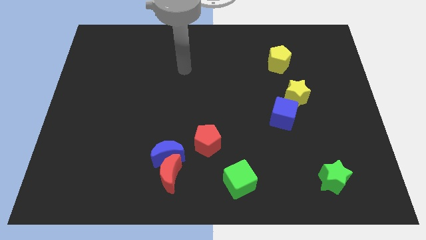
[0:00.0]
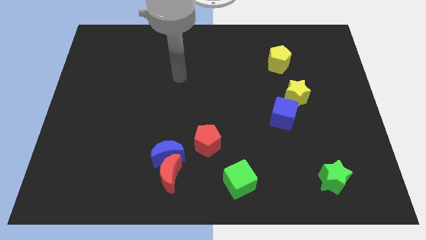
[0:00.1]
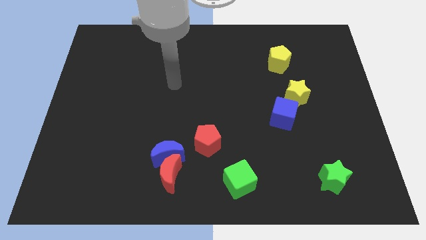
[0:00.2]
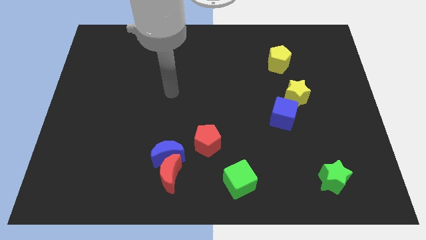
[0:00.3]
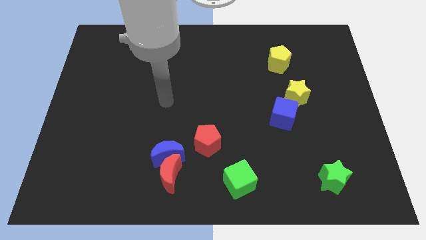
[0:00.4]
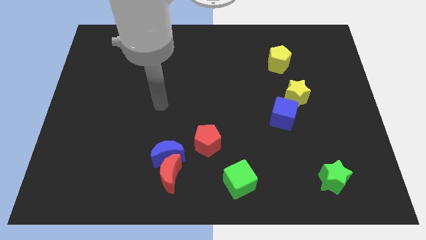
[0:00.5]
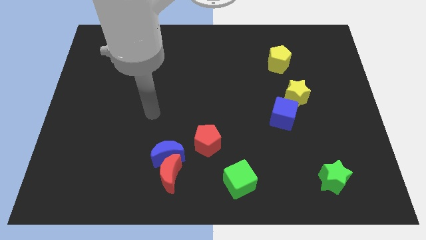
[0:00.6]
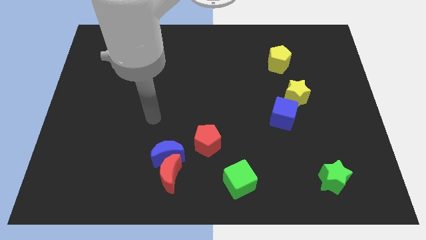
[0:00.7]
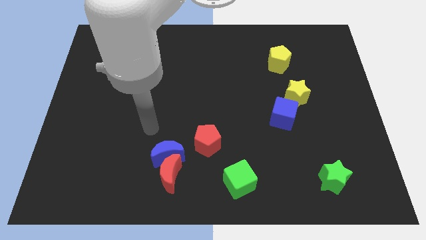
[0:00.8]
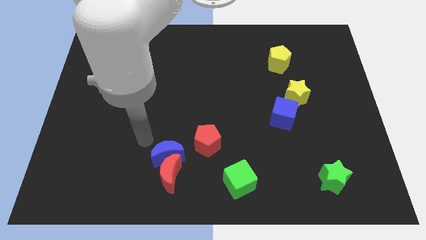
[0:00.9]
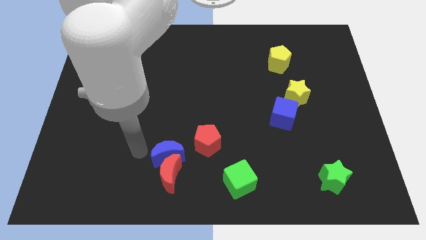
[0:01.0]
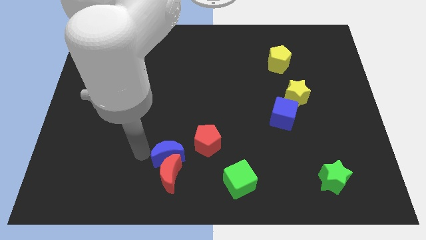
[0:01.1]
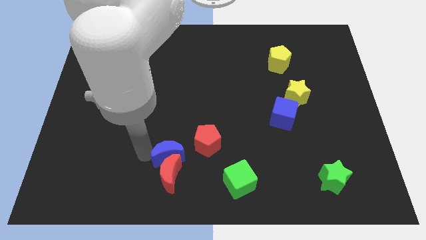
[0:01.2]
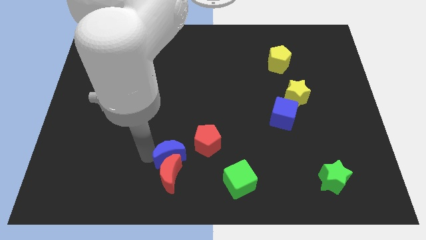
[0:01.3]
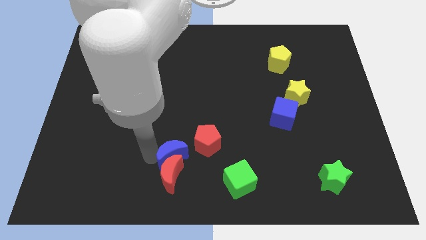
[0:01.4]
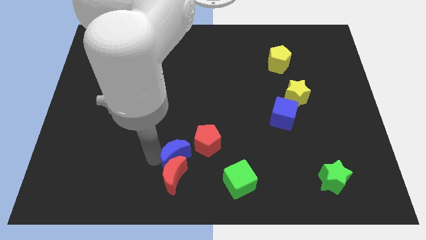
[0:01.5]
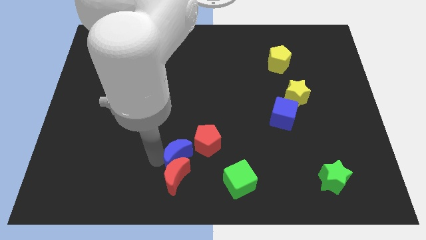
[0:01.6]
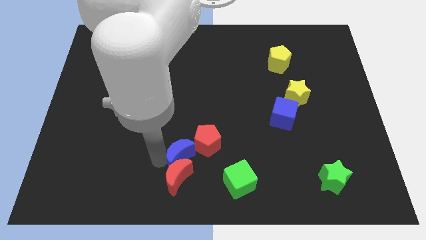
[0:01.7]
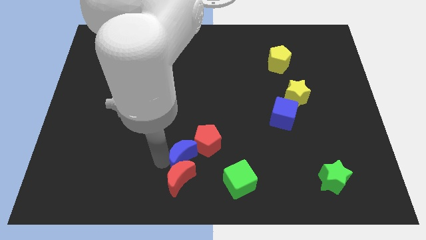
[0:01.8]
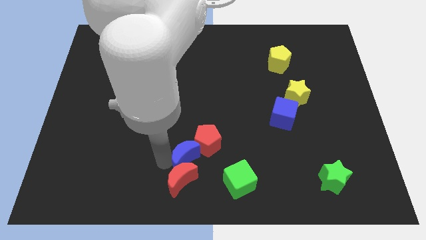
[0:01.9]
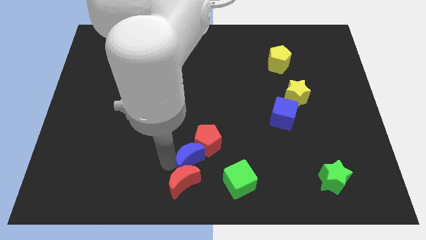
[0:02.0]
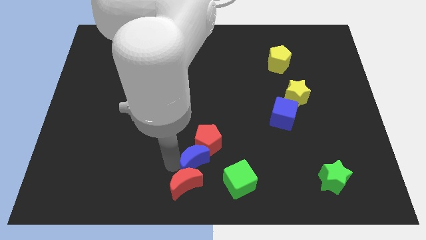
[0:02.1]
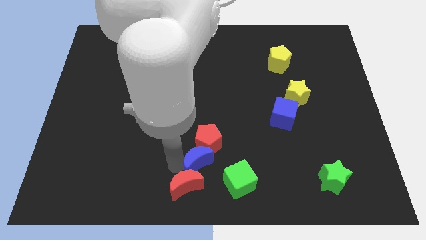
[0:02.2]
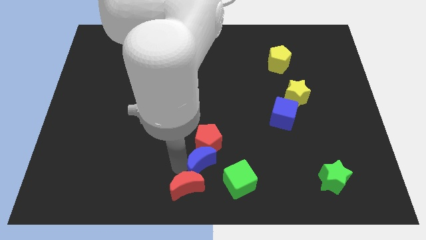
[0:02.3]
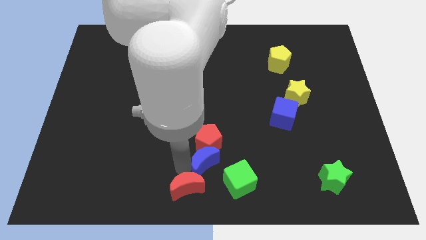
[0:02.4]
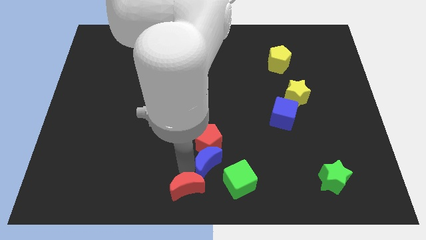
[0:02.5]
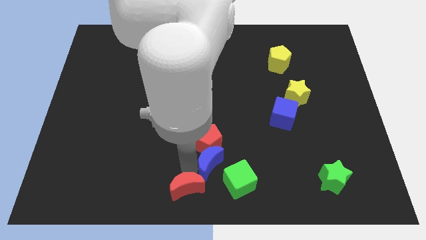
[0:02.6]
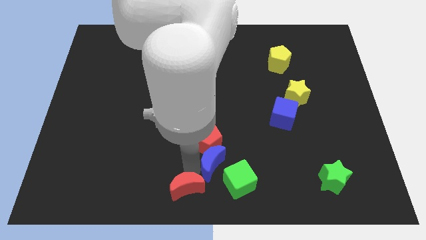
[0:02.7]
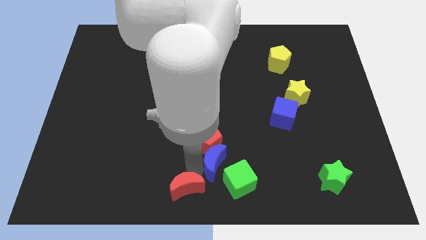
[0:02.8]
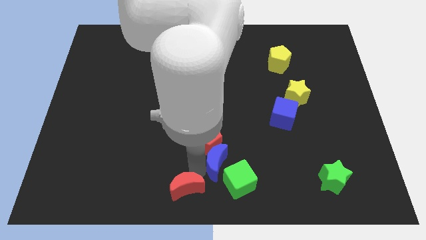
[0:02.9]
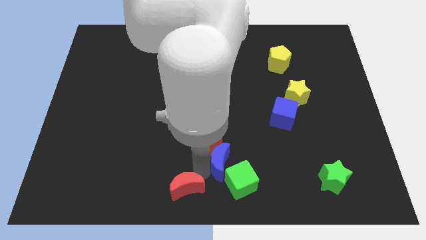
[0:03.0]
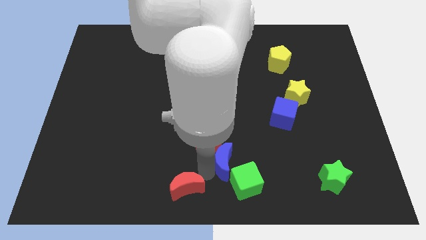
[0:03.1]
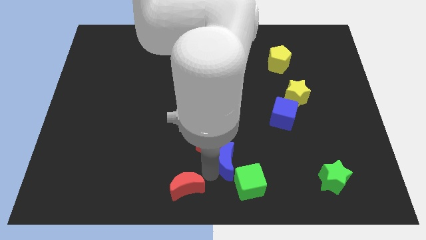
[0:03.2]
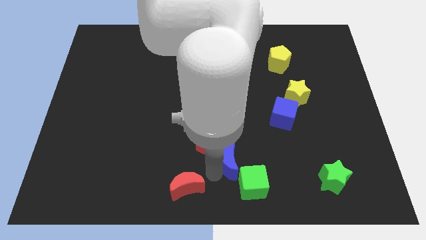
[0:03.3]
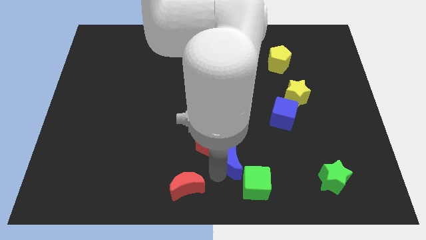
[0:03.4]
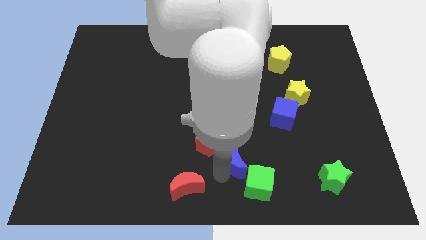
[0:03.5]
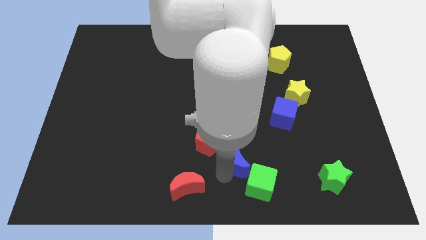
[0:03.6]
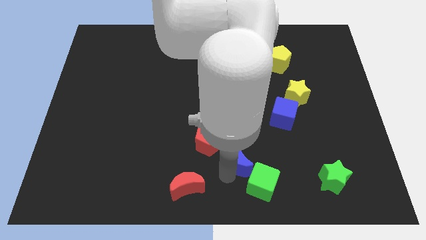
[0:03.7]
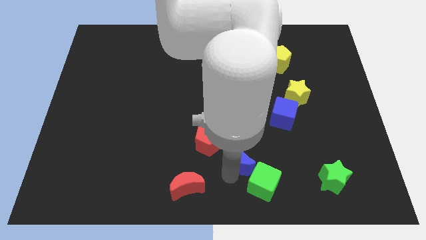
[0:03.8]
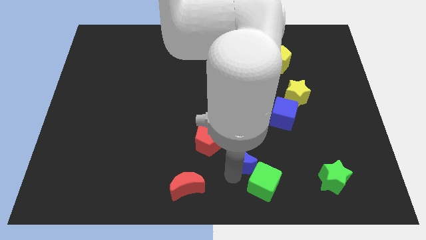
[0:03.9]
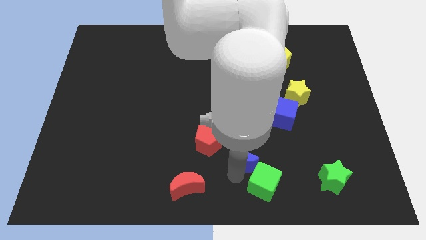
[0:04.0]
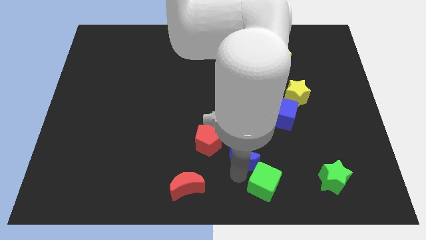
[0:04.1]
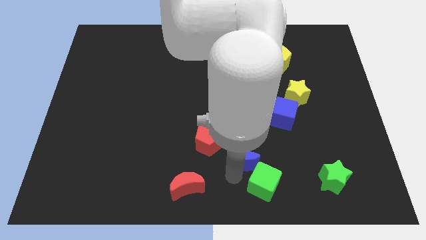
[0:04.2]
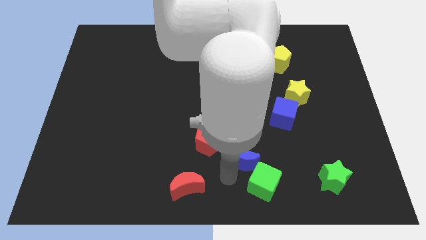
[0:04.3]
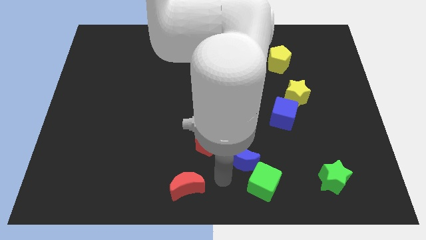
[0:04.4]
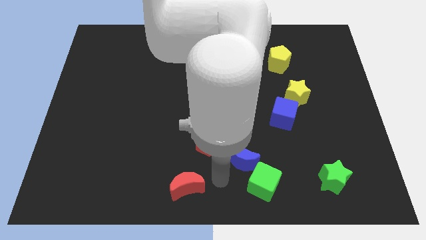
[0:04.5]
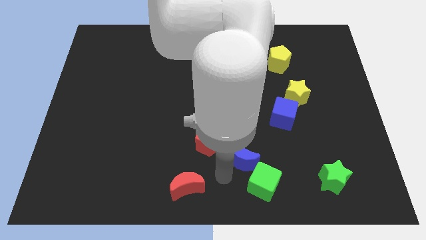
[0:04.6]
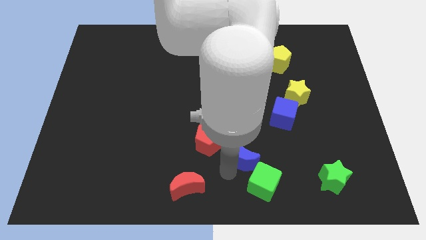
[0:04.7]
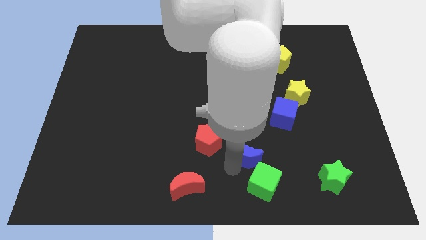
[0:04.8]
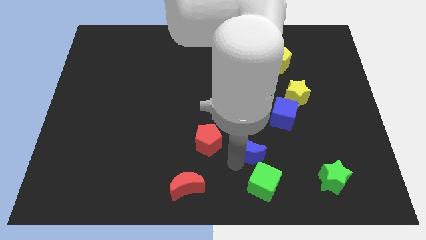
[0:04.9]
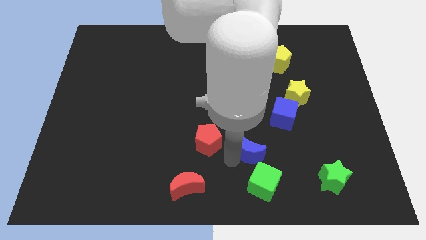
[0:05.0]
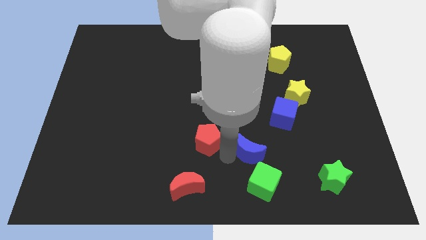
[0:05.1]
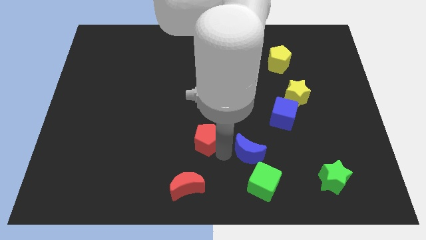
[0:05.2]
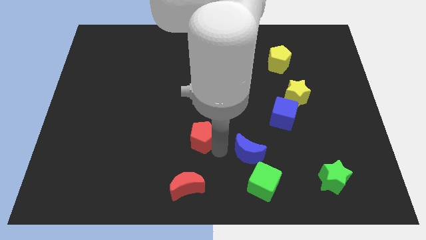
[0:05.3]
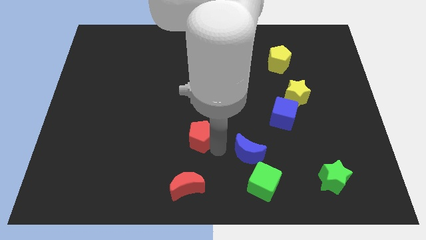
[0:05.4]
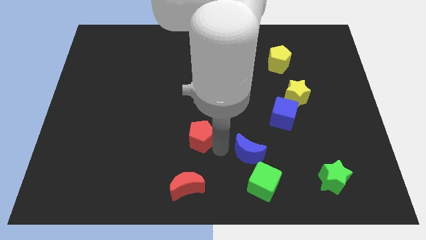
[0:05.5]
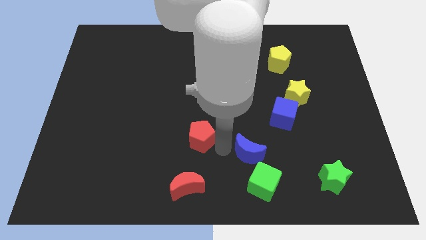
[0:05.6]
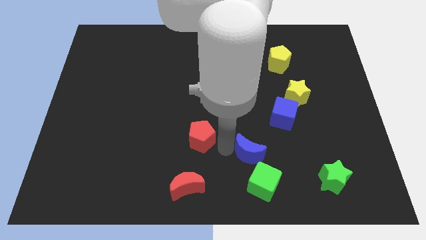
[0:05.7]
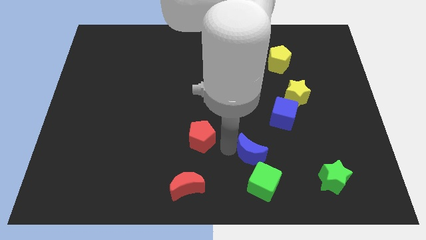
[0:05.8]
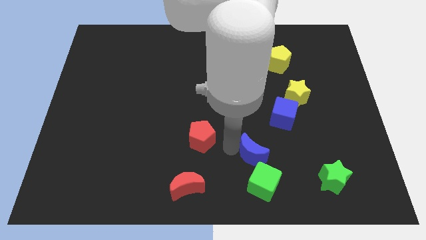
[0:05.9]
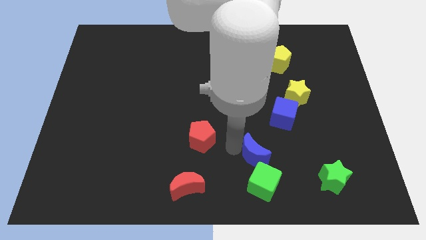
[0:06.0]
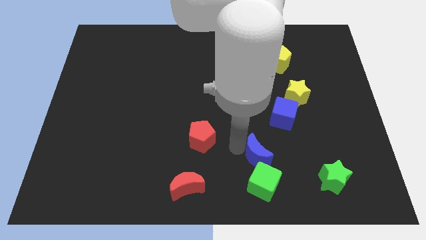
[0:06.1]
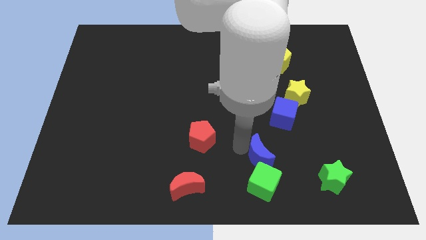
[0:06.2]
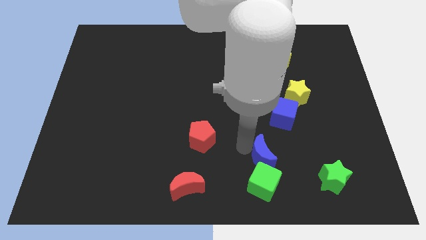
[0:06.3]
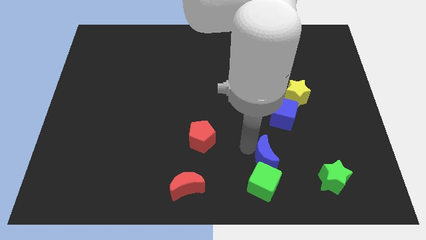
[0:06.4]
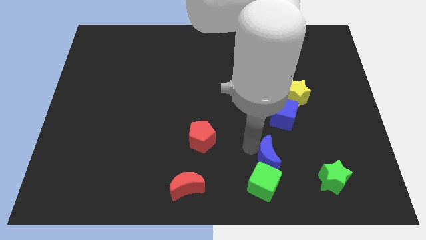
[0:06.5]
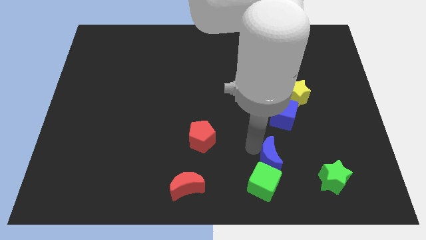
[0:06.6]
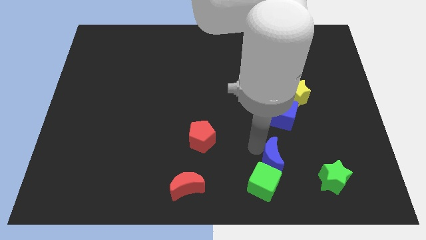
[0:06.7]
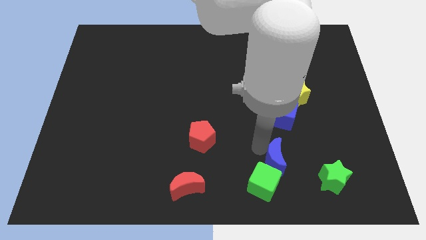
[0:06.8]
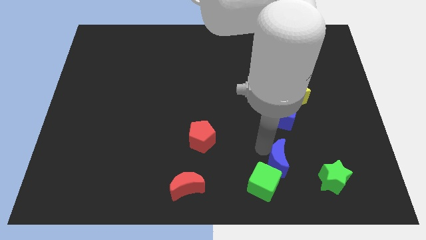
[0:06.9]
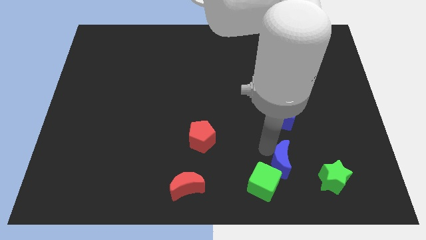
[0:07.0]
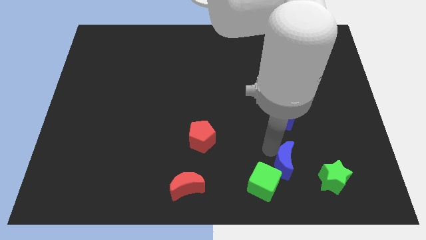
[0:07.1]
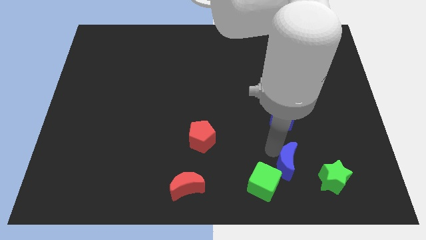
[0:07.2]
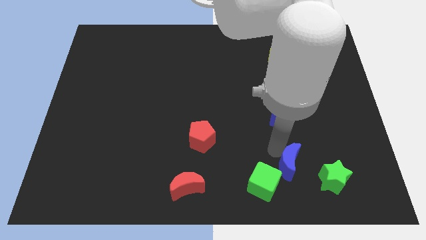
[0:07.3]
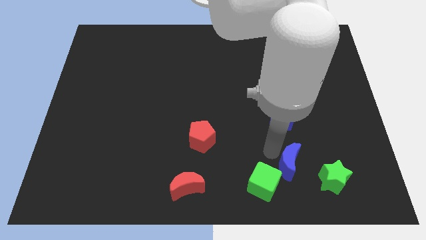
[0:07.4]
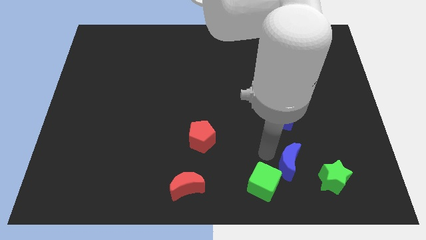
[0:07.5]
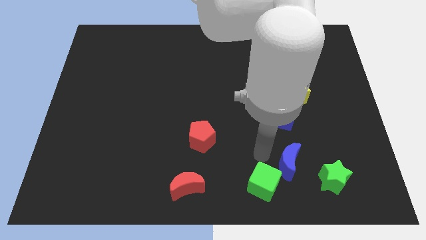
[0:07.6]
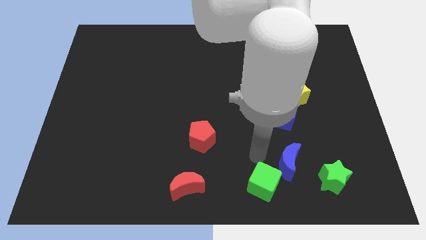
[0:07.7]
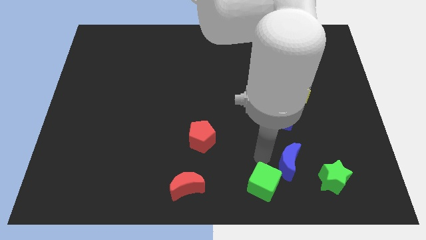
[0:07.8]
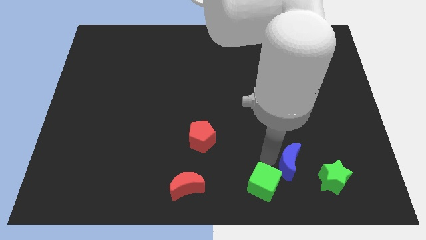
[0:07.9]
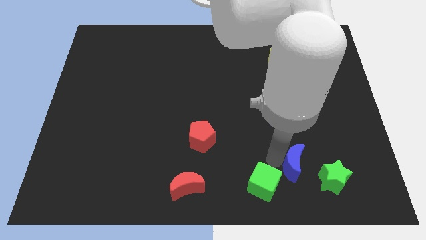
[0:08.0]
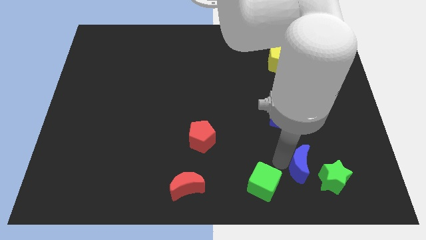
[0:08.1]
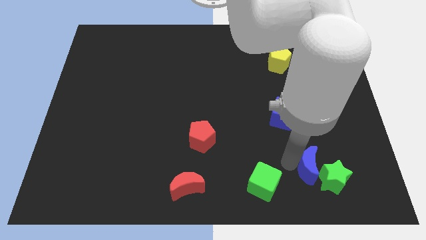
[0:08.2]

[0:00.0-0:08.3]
put the blue moon towards the green star
